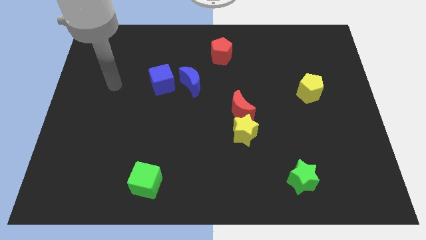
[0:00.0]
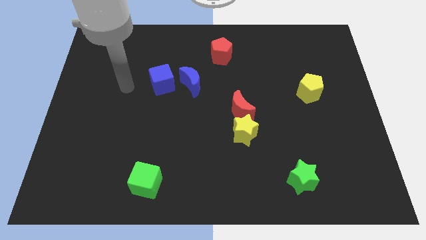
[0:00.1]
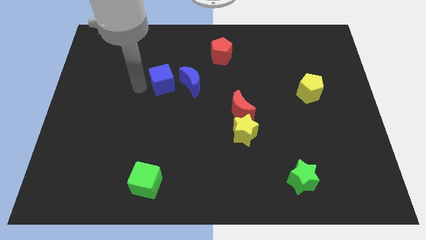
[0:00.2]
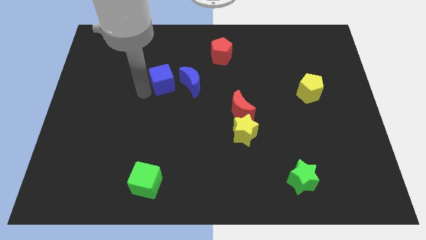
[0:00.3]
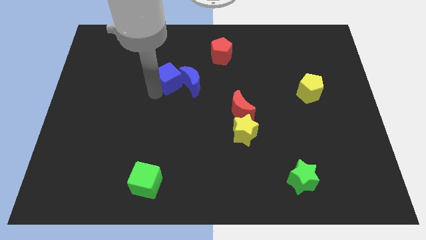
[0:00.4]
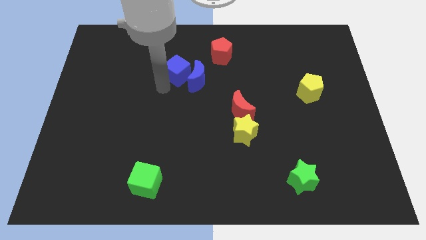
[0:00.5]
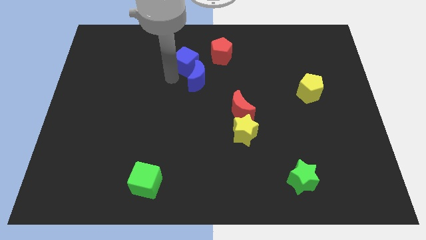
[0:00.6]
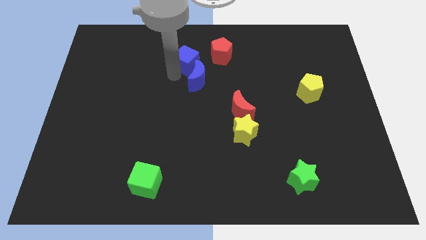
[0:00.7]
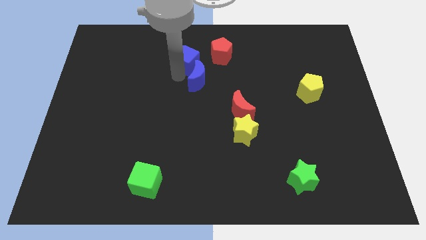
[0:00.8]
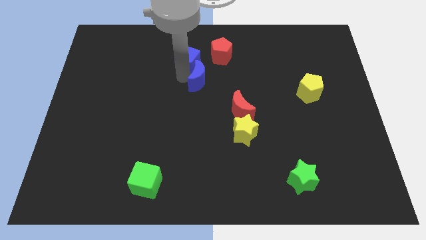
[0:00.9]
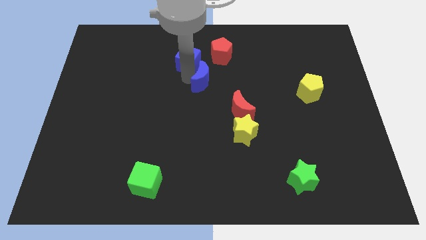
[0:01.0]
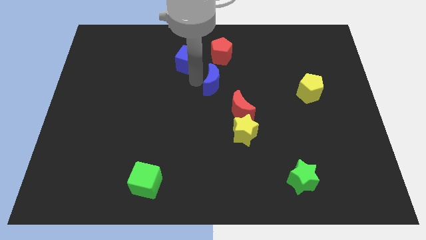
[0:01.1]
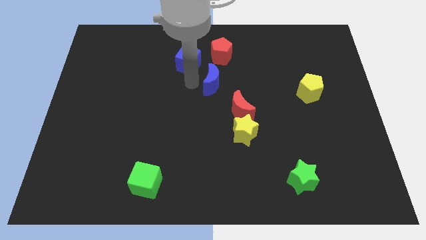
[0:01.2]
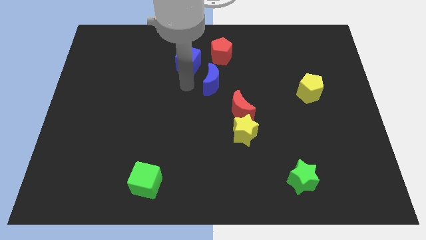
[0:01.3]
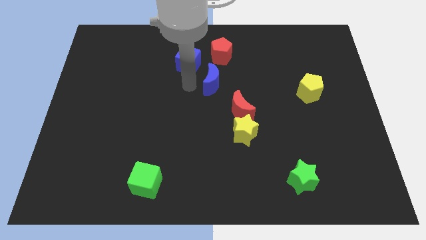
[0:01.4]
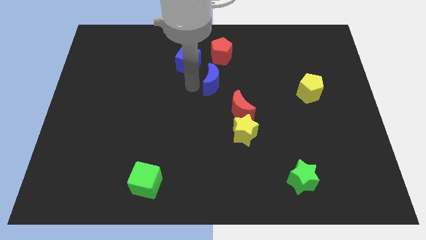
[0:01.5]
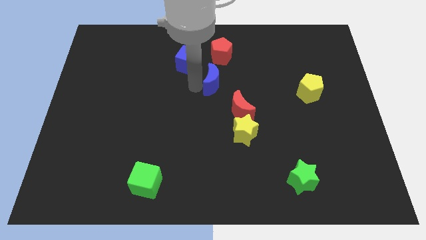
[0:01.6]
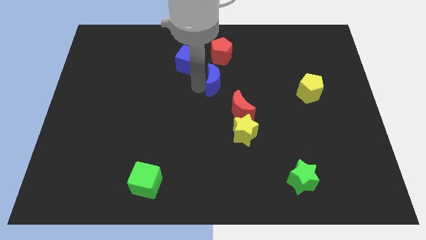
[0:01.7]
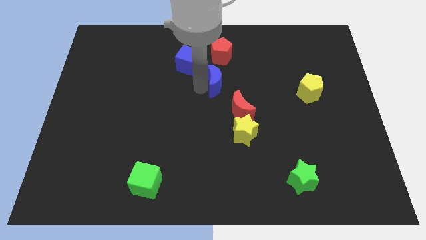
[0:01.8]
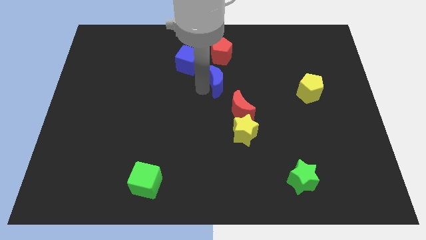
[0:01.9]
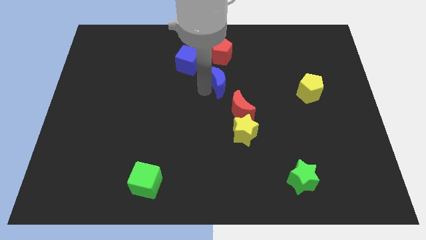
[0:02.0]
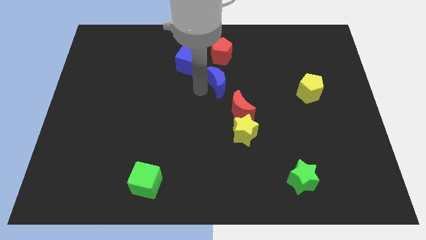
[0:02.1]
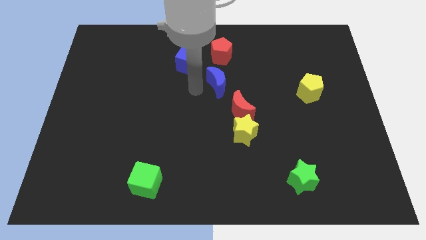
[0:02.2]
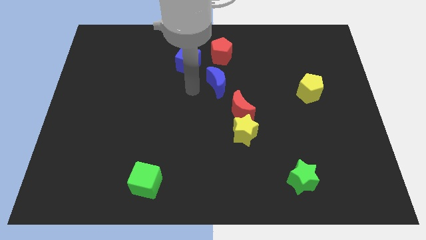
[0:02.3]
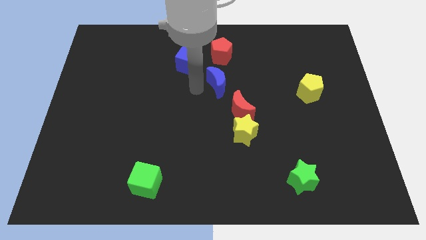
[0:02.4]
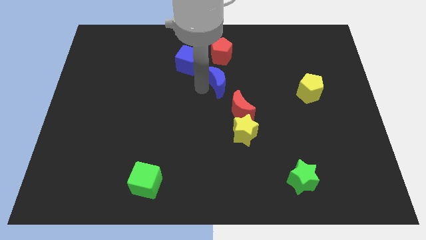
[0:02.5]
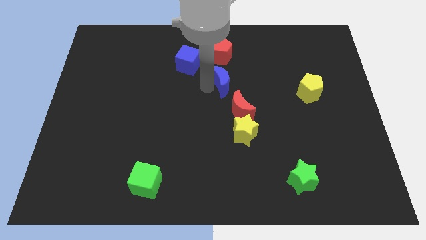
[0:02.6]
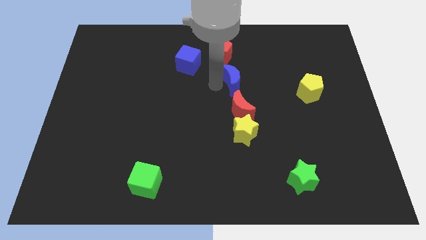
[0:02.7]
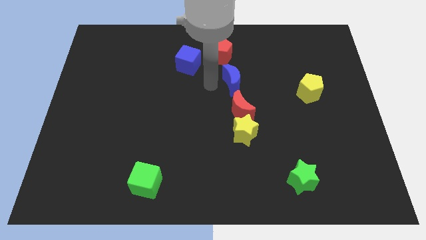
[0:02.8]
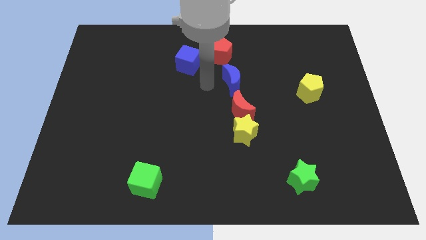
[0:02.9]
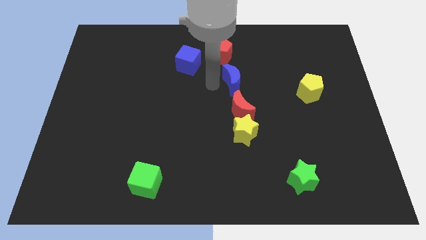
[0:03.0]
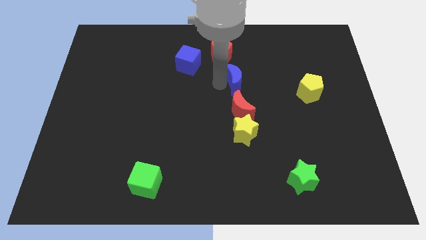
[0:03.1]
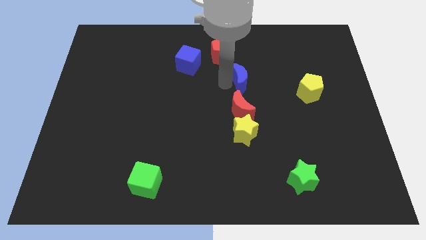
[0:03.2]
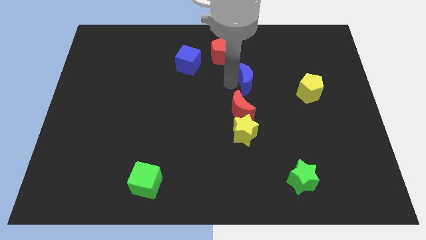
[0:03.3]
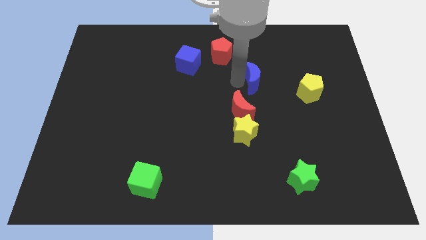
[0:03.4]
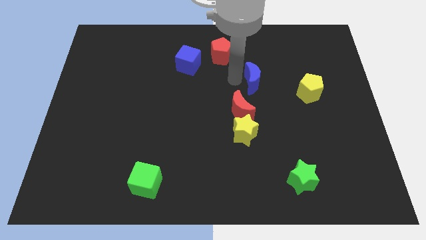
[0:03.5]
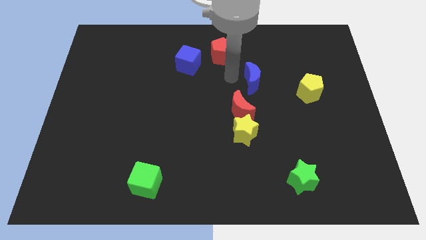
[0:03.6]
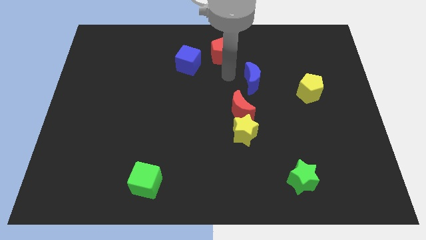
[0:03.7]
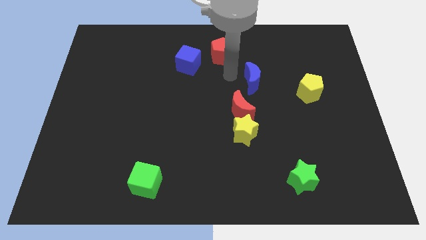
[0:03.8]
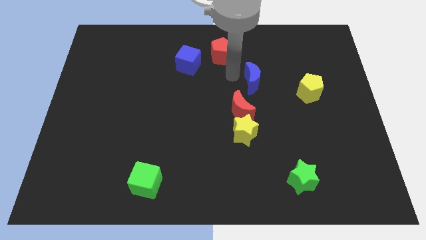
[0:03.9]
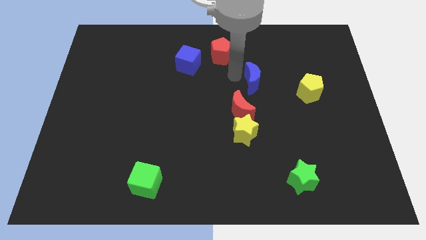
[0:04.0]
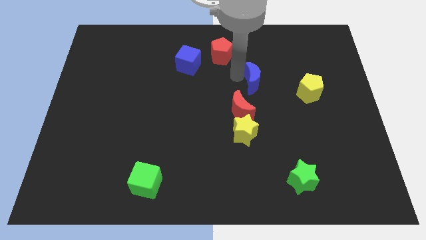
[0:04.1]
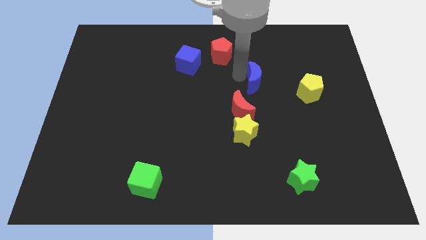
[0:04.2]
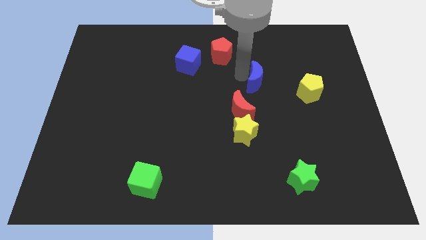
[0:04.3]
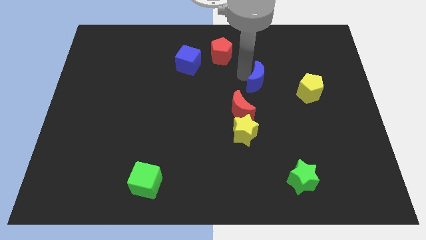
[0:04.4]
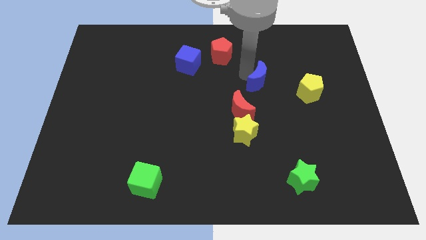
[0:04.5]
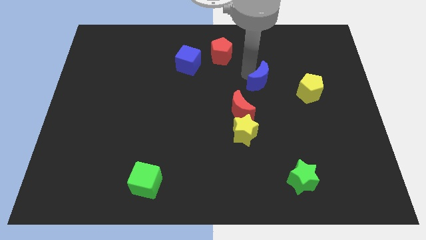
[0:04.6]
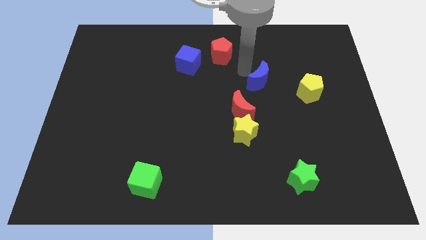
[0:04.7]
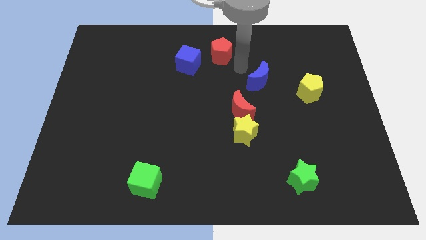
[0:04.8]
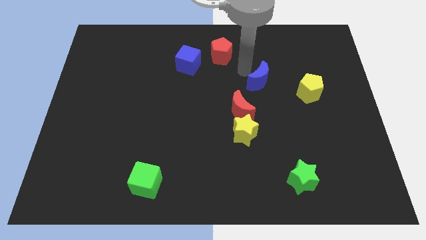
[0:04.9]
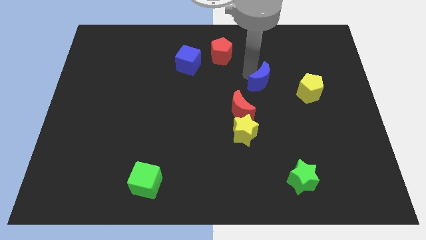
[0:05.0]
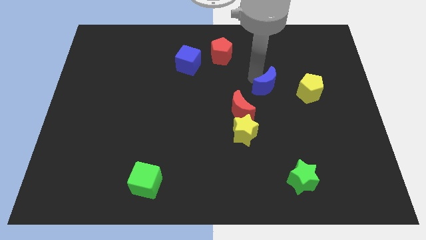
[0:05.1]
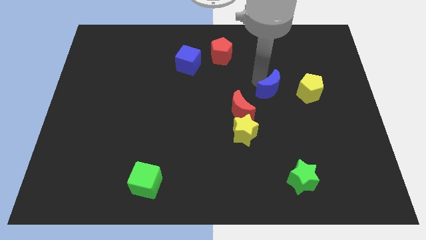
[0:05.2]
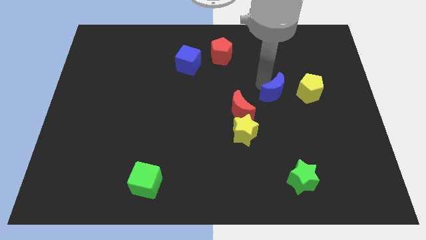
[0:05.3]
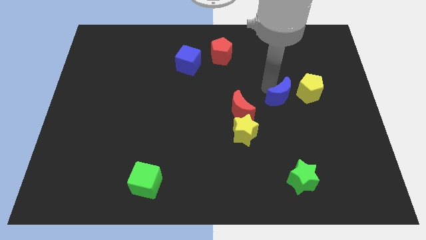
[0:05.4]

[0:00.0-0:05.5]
put the blue moon to the bottom left of the yellow pentagon

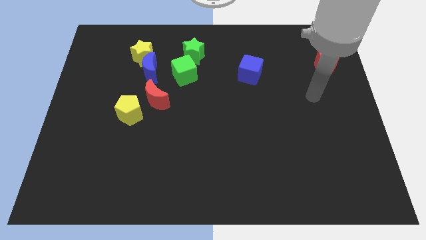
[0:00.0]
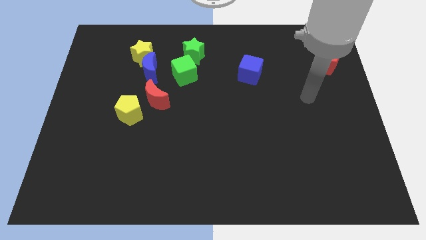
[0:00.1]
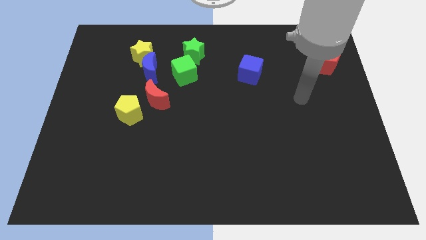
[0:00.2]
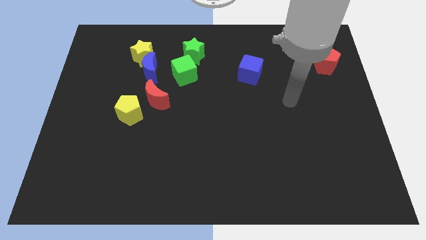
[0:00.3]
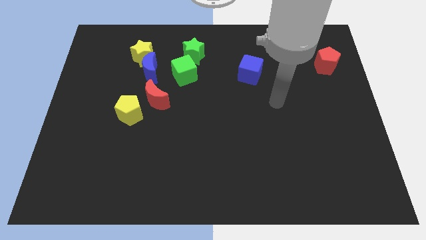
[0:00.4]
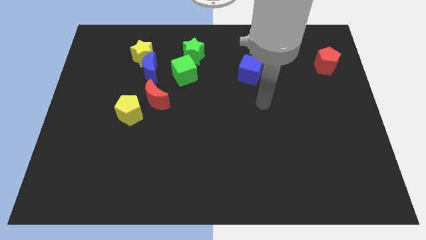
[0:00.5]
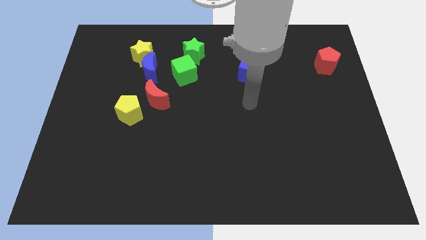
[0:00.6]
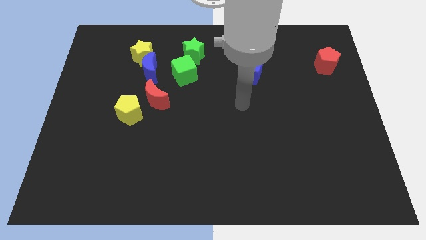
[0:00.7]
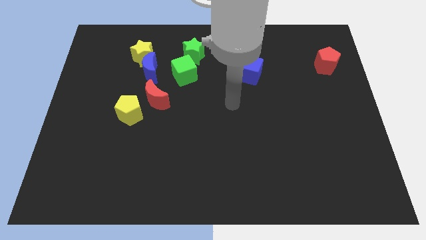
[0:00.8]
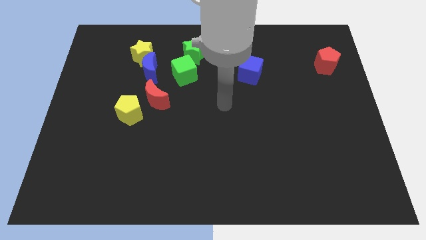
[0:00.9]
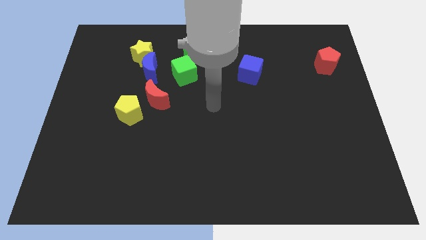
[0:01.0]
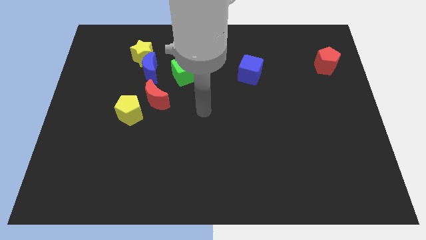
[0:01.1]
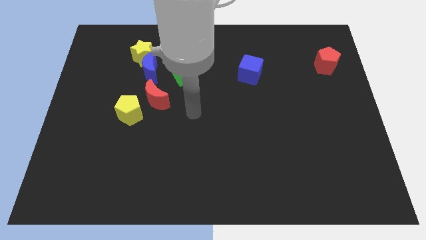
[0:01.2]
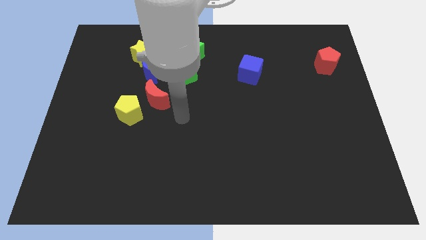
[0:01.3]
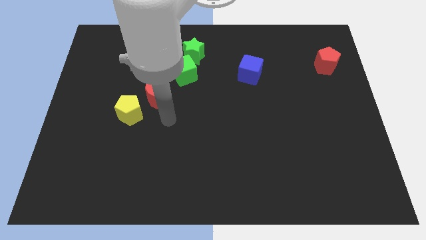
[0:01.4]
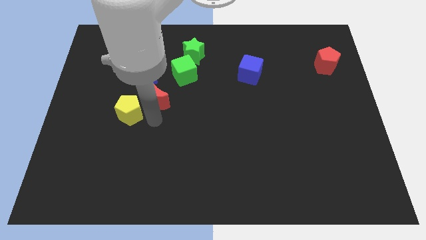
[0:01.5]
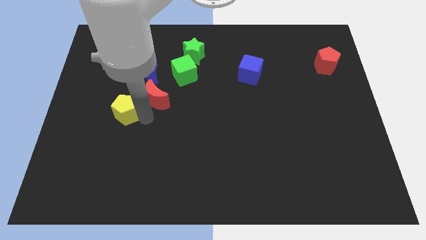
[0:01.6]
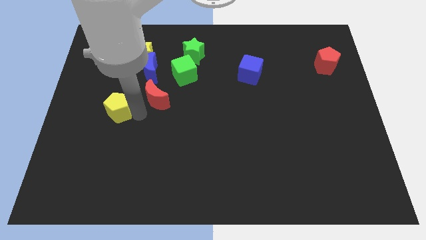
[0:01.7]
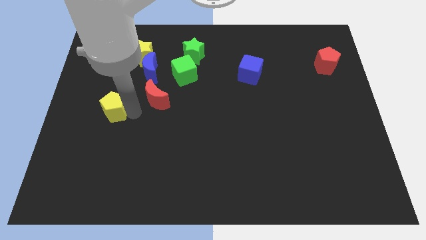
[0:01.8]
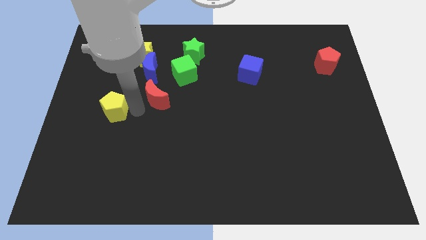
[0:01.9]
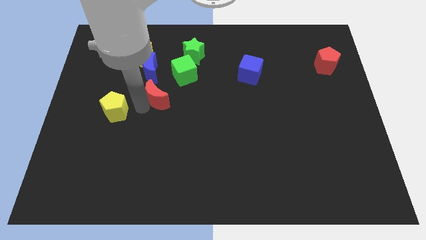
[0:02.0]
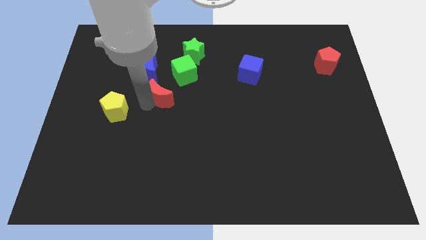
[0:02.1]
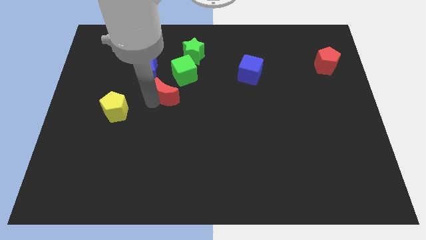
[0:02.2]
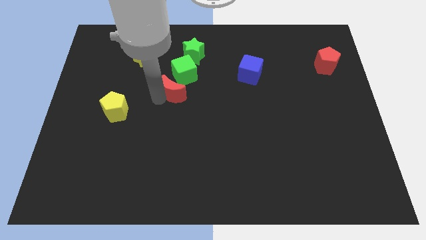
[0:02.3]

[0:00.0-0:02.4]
slide the red moon below the green star

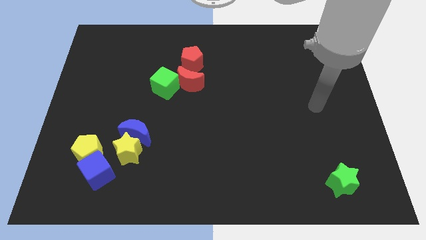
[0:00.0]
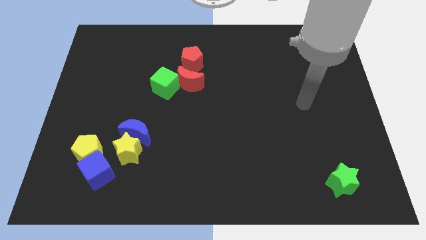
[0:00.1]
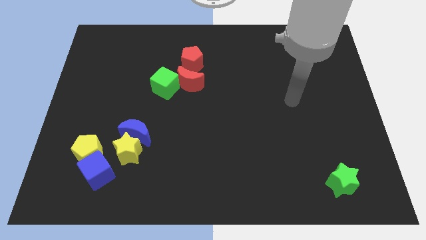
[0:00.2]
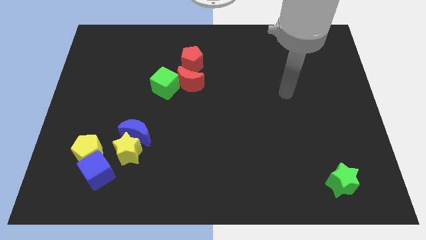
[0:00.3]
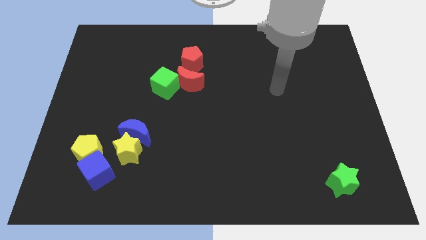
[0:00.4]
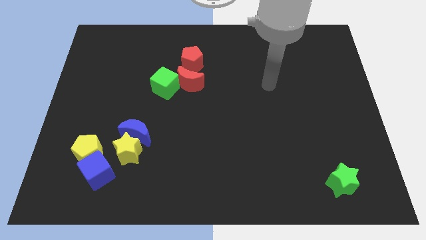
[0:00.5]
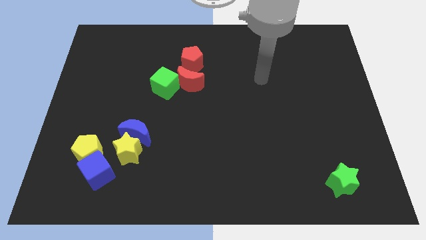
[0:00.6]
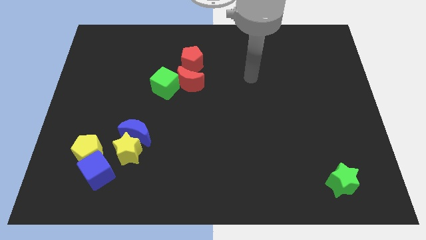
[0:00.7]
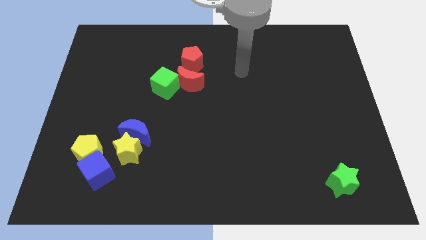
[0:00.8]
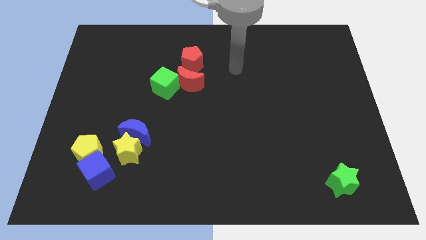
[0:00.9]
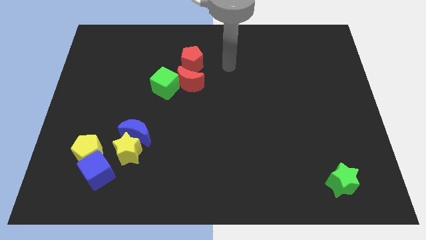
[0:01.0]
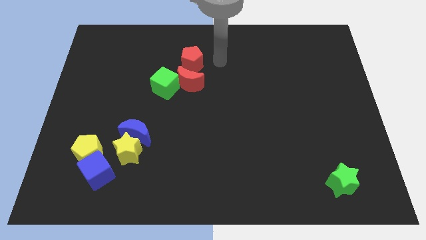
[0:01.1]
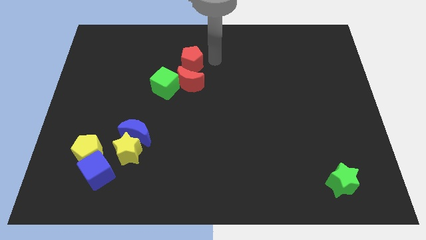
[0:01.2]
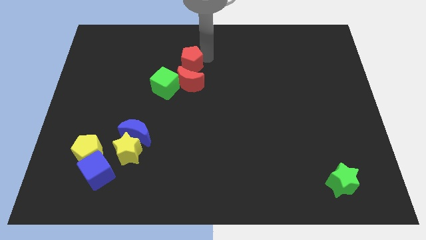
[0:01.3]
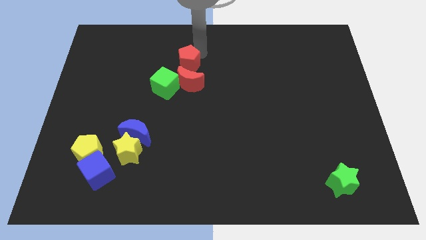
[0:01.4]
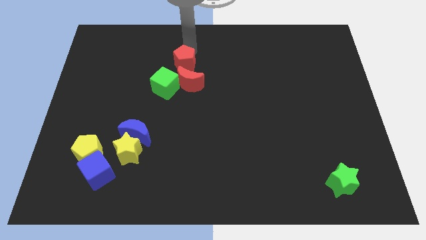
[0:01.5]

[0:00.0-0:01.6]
move the green cube to the bottom side of the red pentagon
